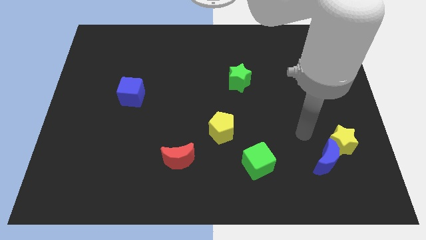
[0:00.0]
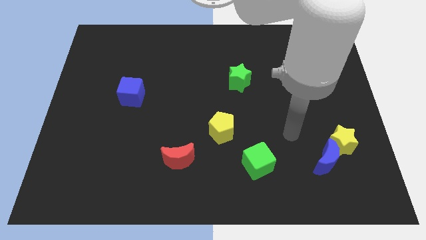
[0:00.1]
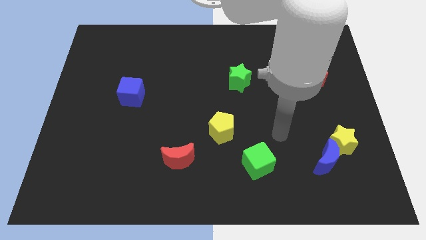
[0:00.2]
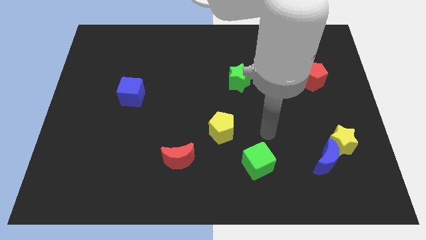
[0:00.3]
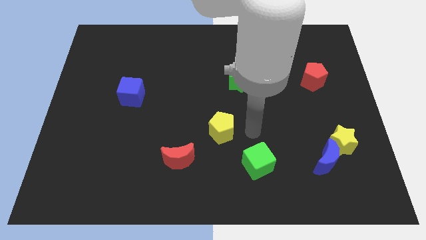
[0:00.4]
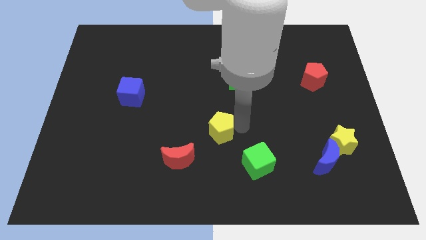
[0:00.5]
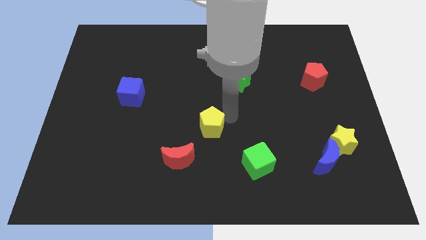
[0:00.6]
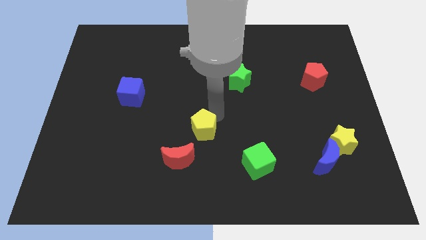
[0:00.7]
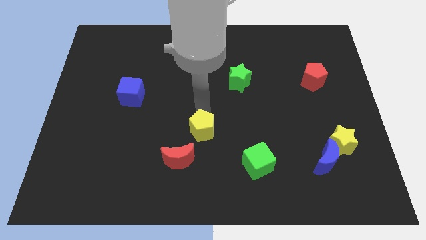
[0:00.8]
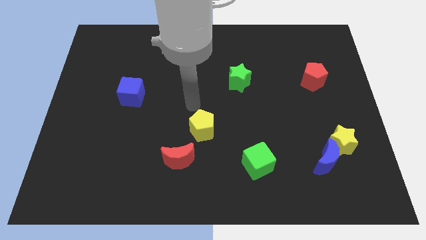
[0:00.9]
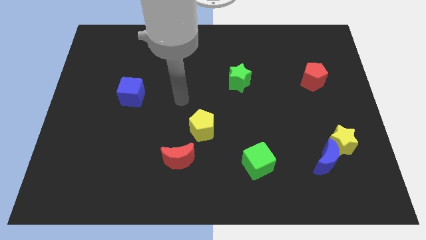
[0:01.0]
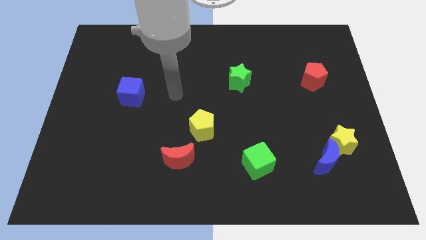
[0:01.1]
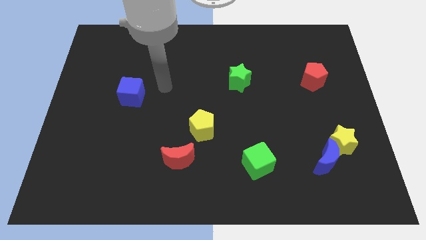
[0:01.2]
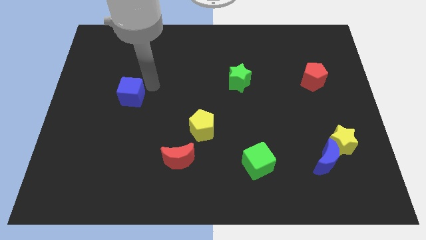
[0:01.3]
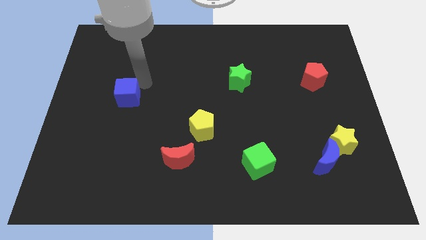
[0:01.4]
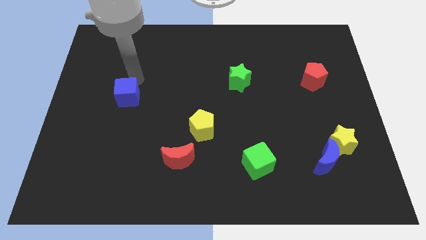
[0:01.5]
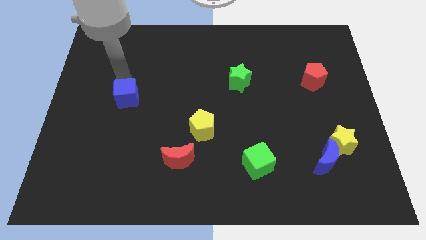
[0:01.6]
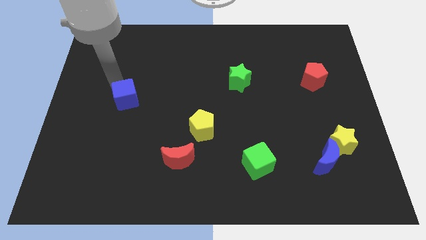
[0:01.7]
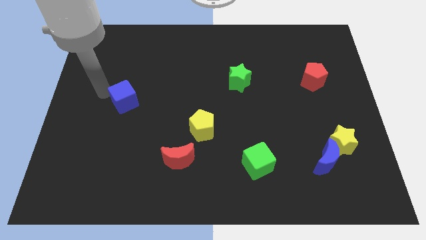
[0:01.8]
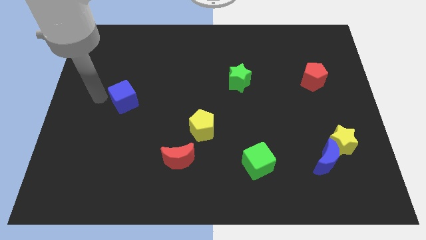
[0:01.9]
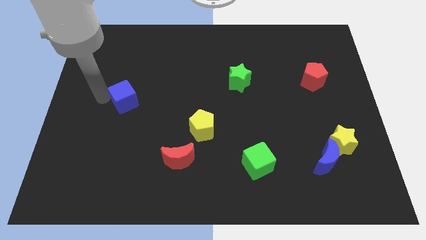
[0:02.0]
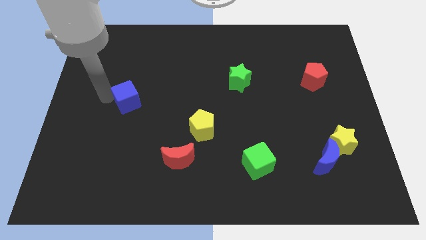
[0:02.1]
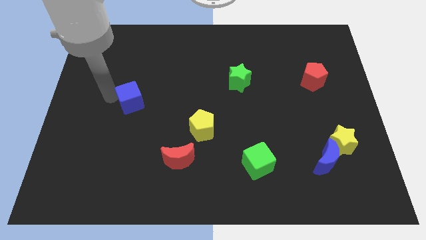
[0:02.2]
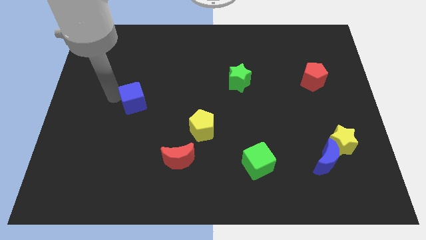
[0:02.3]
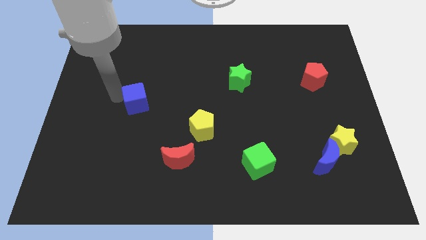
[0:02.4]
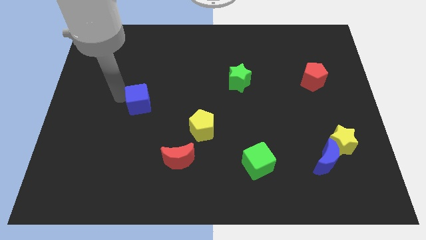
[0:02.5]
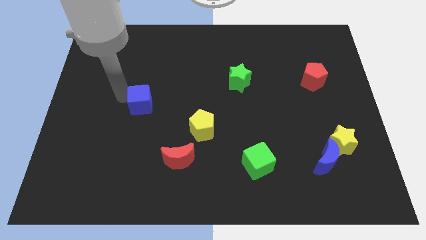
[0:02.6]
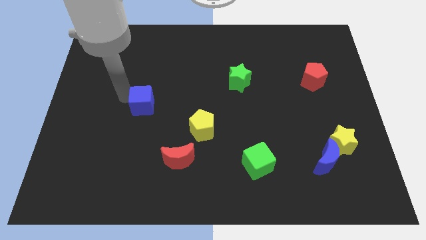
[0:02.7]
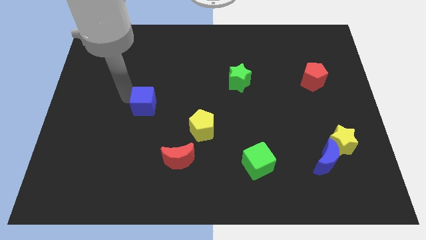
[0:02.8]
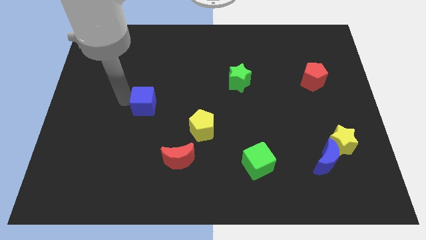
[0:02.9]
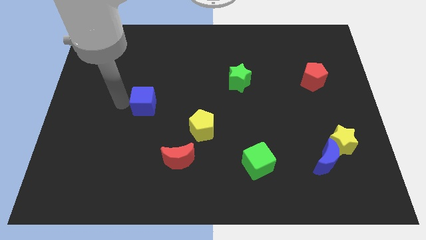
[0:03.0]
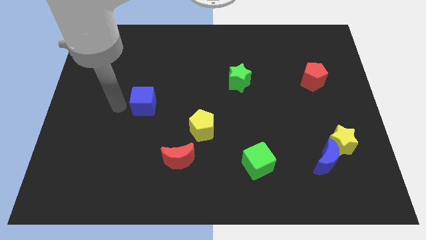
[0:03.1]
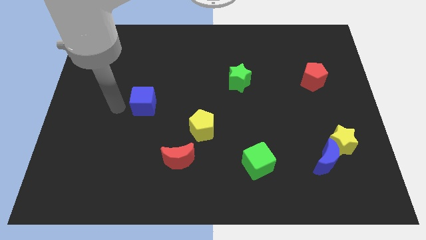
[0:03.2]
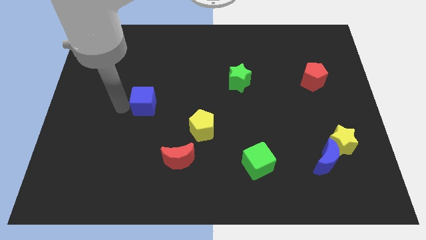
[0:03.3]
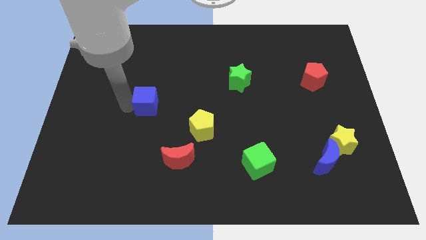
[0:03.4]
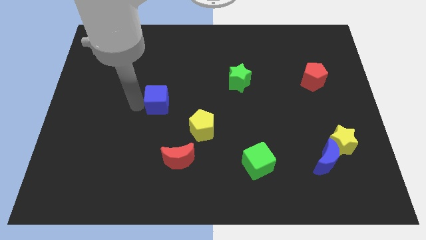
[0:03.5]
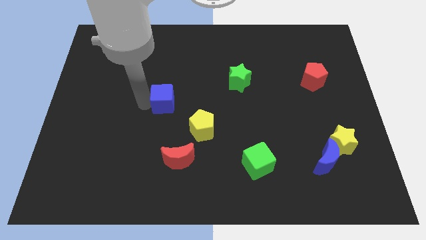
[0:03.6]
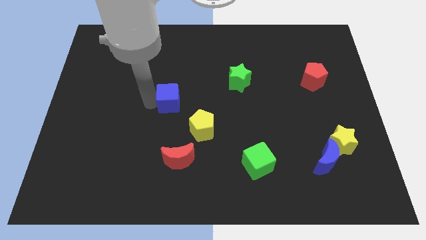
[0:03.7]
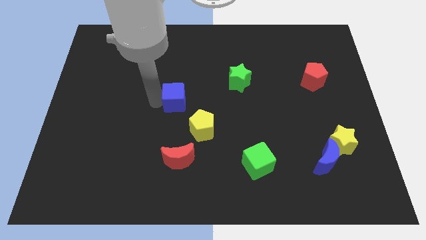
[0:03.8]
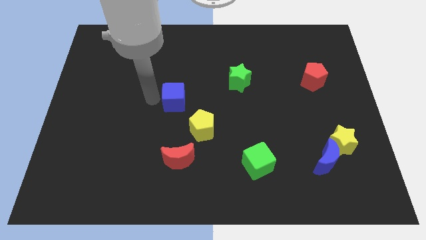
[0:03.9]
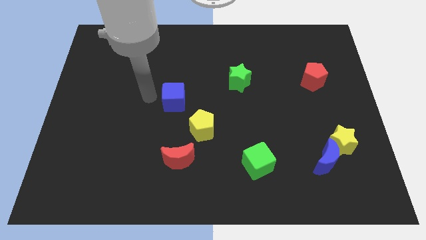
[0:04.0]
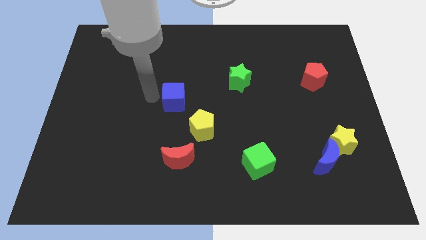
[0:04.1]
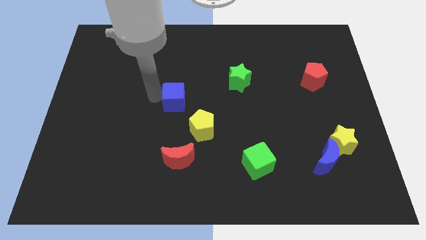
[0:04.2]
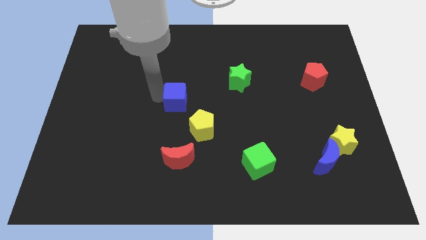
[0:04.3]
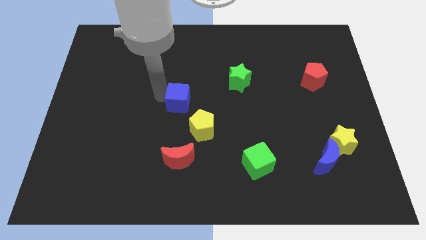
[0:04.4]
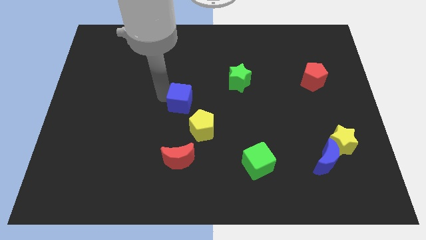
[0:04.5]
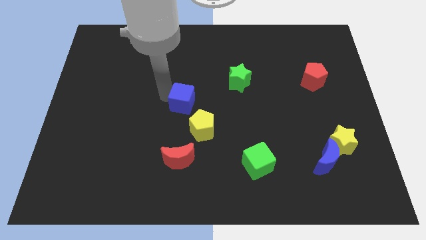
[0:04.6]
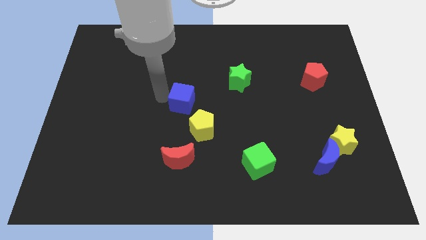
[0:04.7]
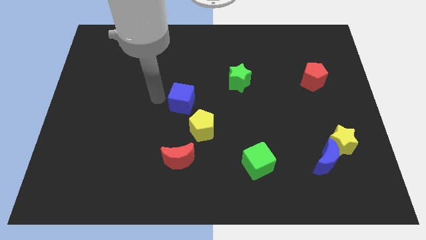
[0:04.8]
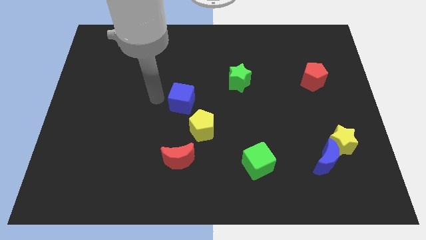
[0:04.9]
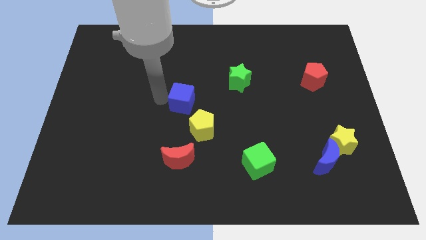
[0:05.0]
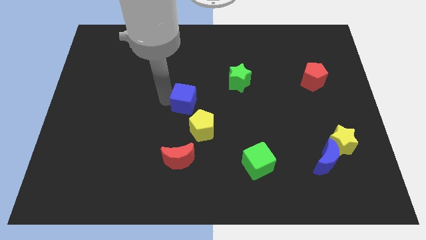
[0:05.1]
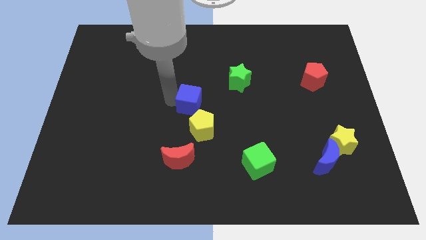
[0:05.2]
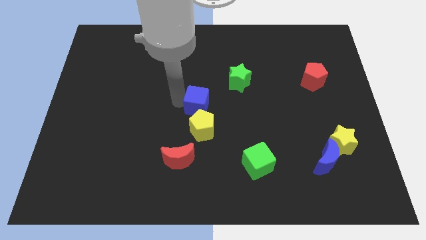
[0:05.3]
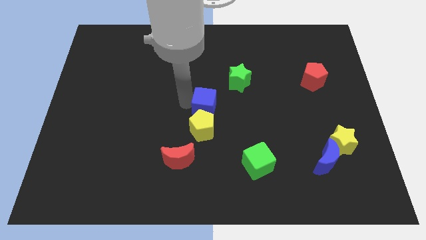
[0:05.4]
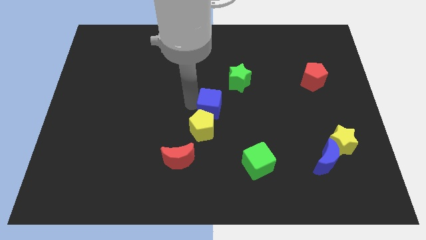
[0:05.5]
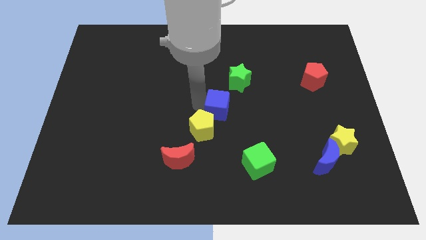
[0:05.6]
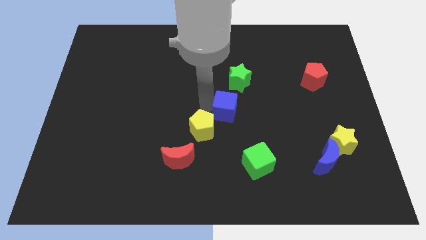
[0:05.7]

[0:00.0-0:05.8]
slide the blue cube to the bottom of the green star

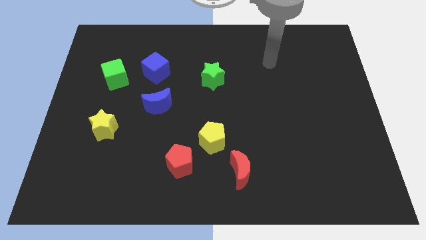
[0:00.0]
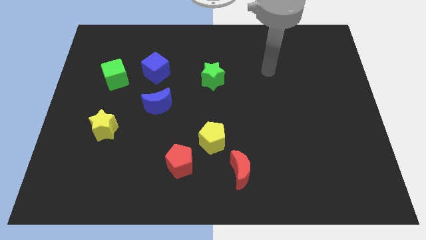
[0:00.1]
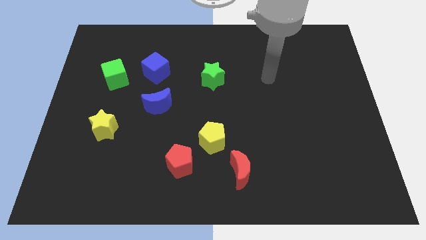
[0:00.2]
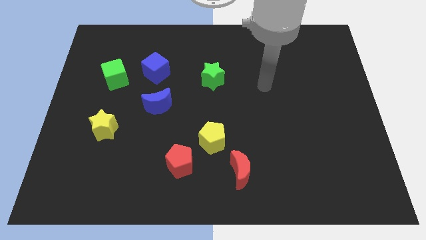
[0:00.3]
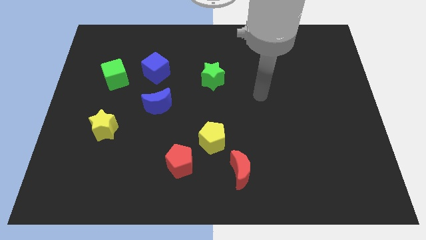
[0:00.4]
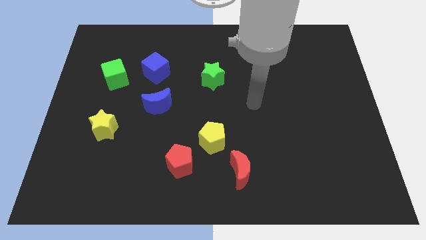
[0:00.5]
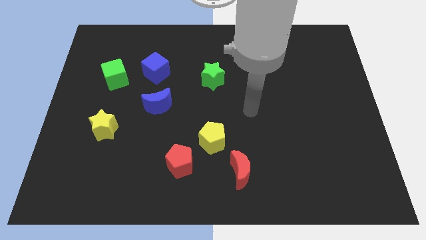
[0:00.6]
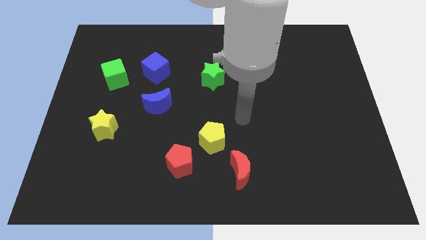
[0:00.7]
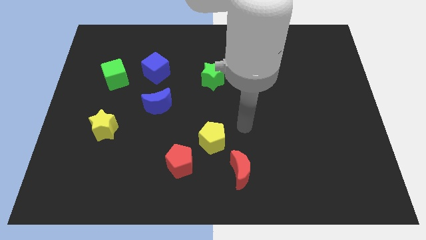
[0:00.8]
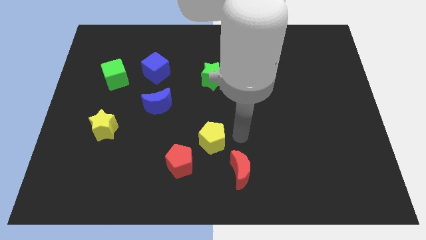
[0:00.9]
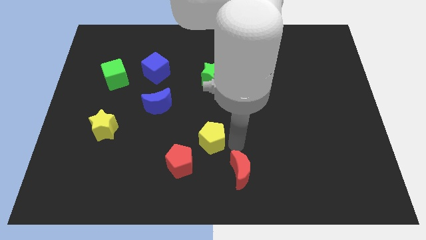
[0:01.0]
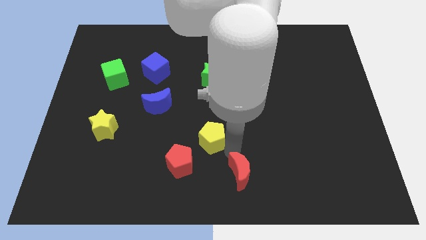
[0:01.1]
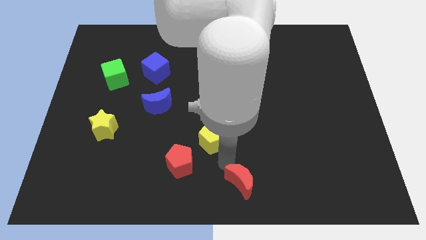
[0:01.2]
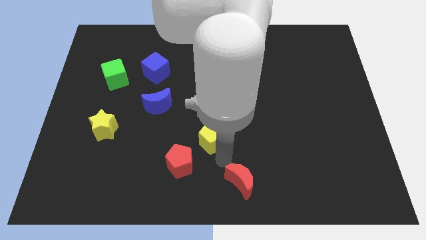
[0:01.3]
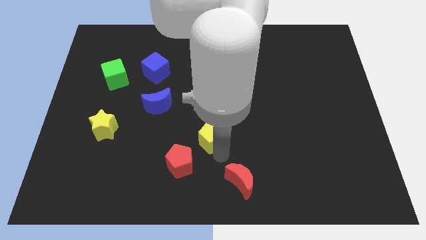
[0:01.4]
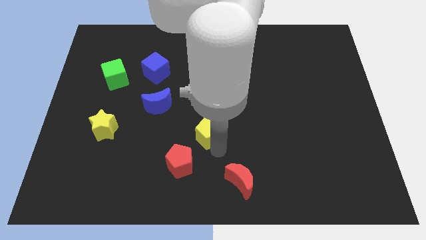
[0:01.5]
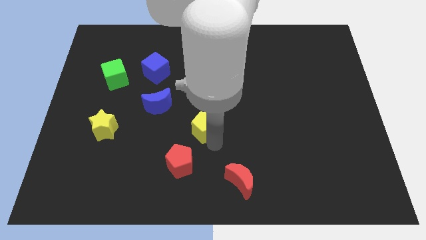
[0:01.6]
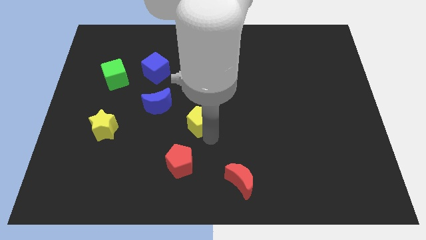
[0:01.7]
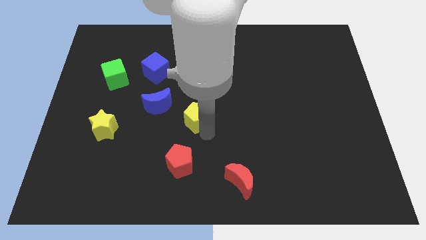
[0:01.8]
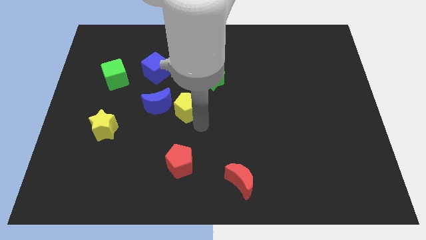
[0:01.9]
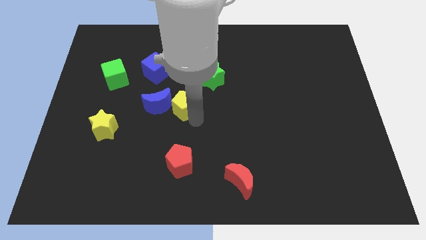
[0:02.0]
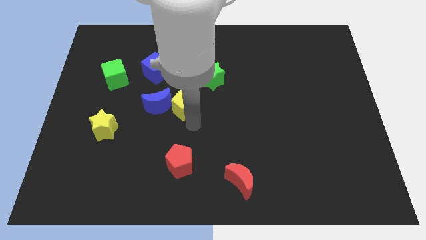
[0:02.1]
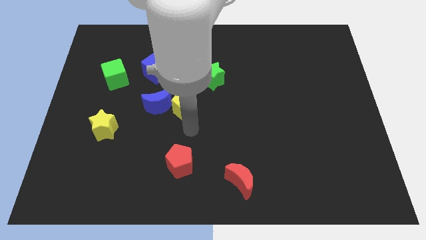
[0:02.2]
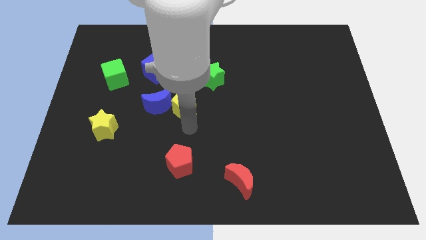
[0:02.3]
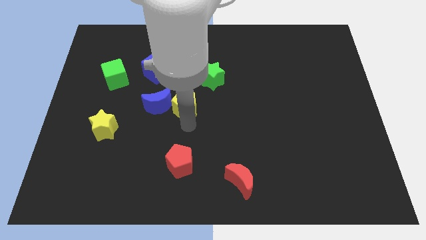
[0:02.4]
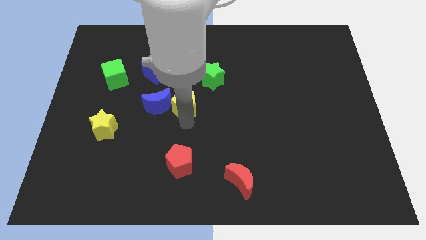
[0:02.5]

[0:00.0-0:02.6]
slide the yellow pentagon to the top right side of the blue moon
